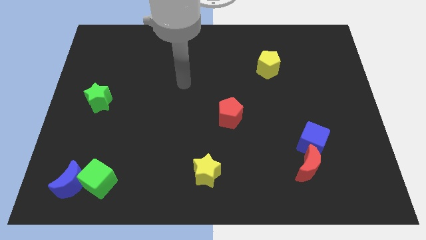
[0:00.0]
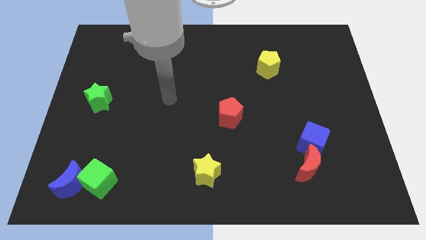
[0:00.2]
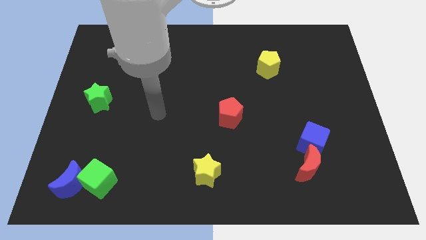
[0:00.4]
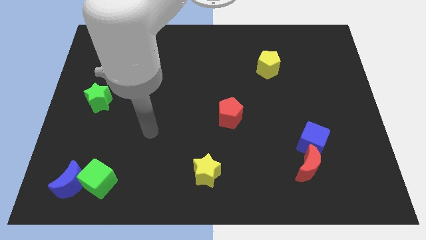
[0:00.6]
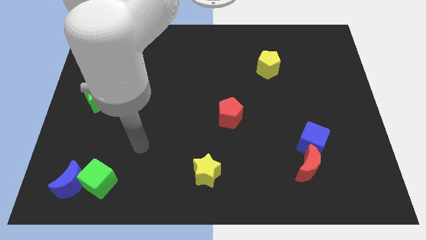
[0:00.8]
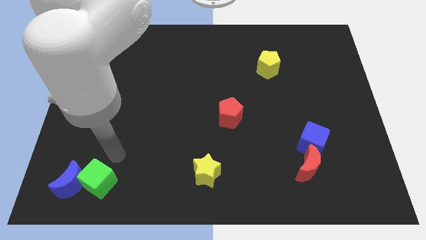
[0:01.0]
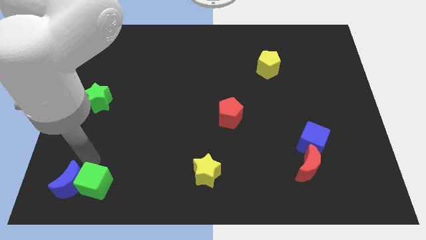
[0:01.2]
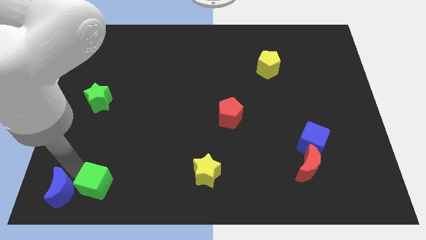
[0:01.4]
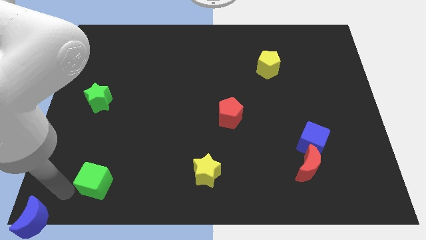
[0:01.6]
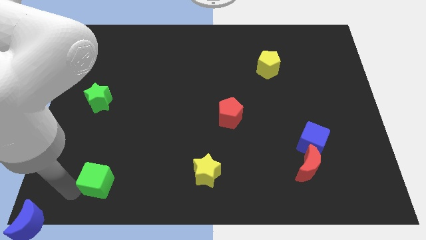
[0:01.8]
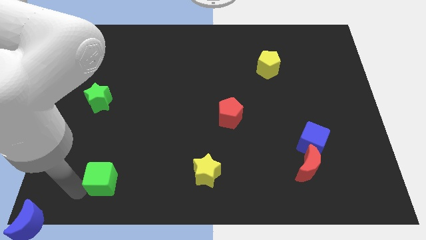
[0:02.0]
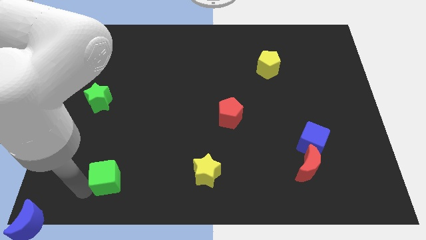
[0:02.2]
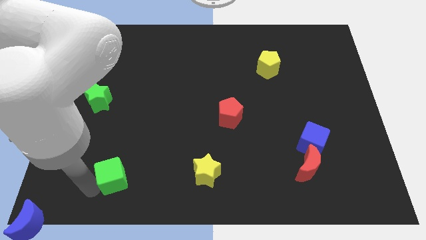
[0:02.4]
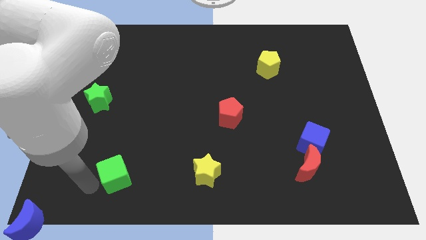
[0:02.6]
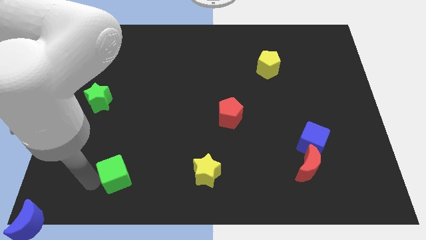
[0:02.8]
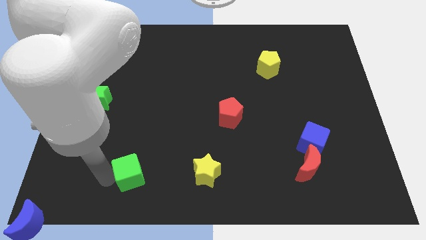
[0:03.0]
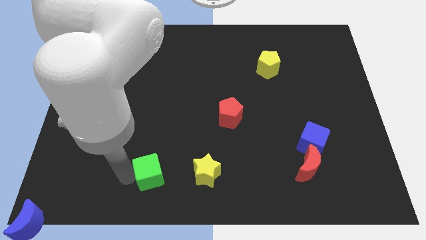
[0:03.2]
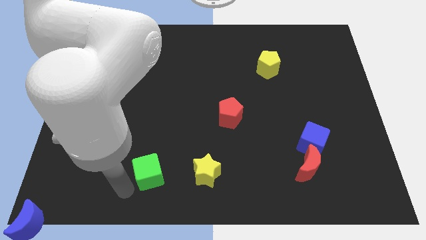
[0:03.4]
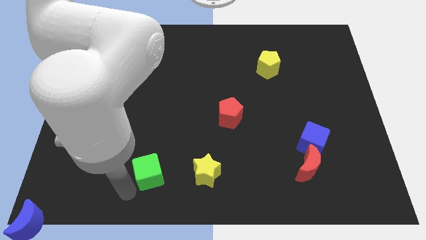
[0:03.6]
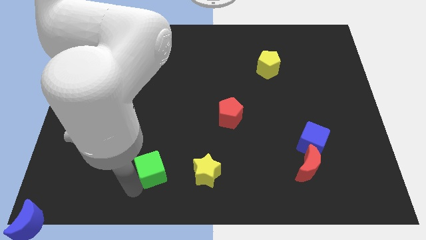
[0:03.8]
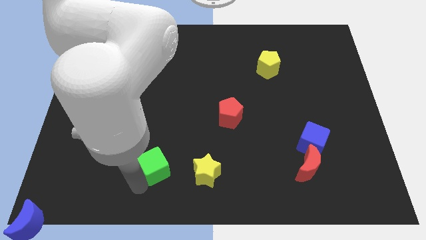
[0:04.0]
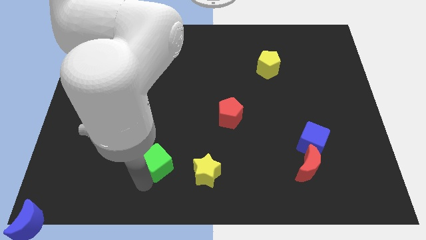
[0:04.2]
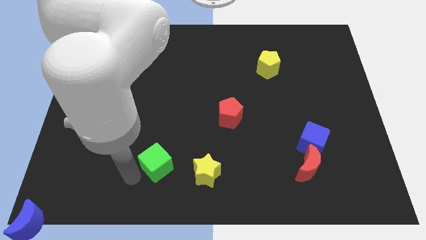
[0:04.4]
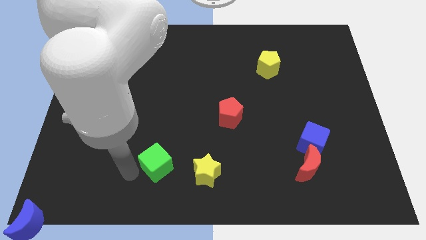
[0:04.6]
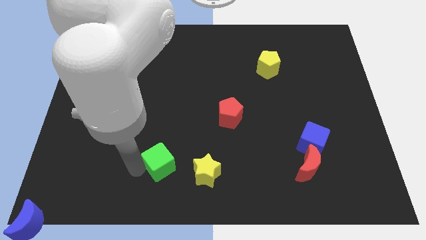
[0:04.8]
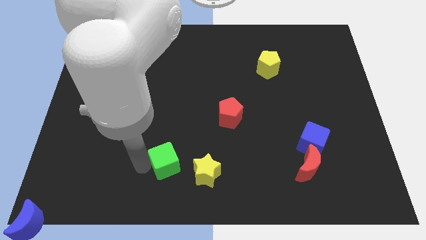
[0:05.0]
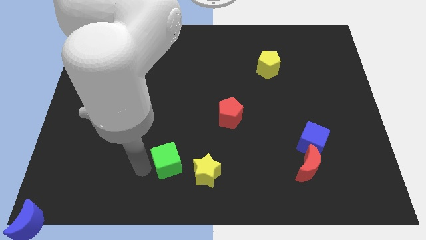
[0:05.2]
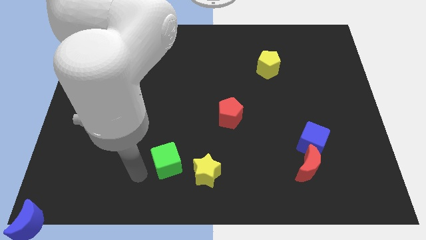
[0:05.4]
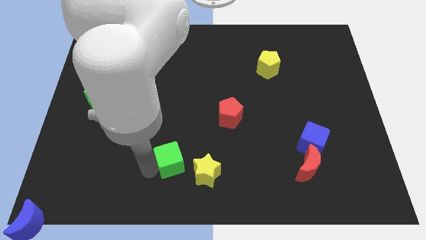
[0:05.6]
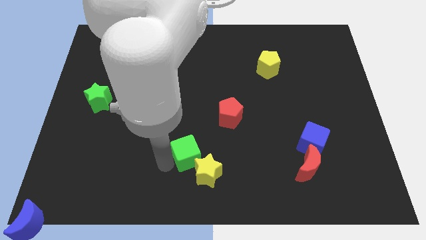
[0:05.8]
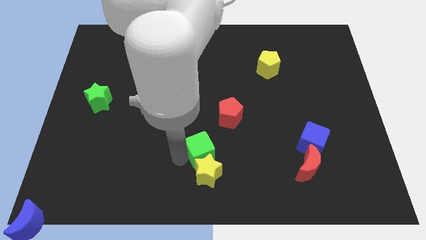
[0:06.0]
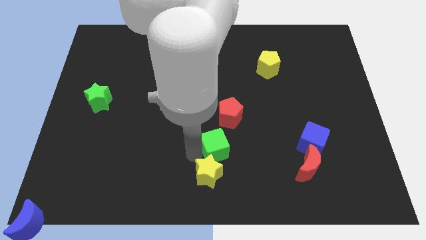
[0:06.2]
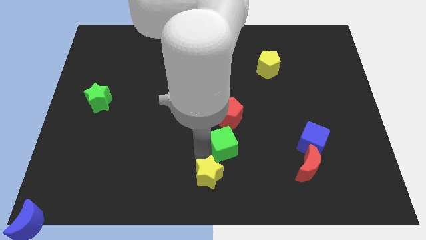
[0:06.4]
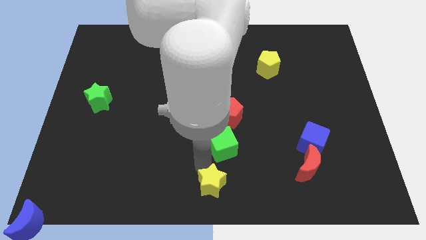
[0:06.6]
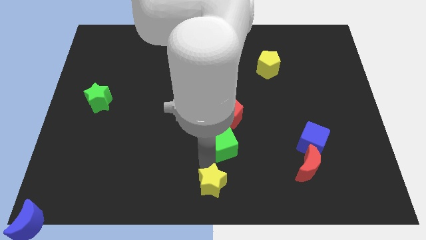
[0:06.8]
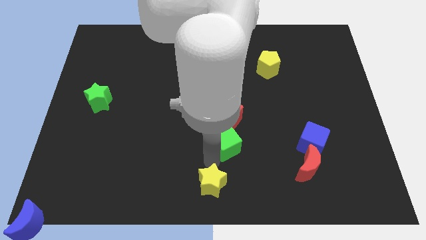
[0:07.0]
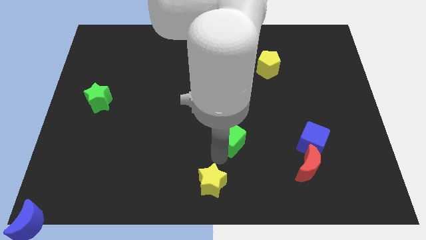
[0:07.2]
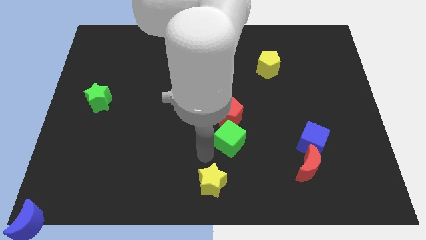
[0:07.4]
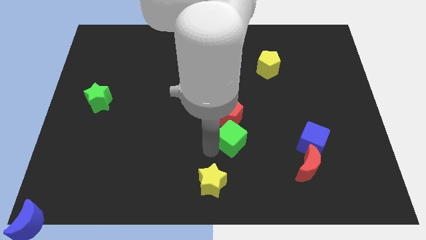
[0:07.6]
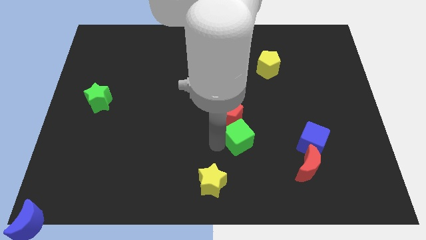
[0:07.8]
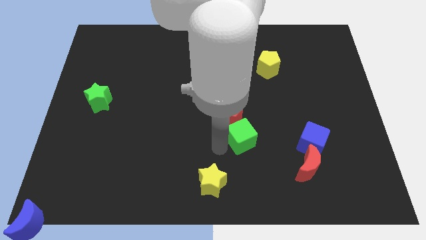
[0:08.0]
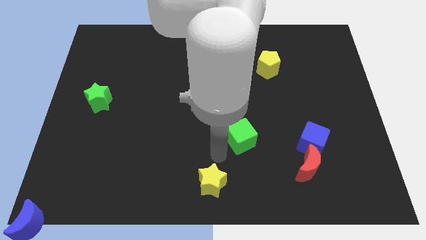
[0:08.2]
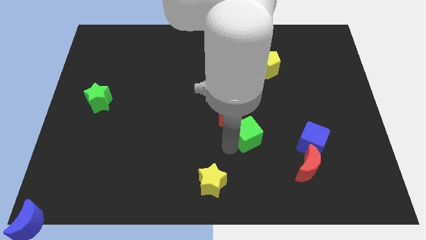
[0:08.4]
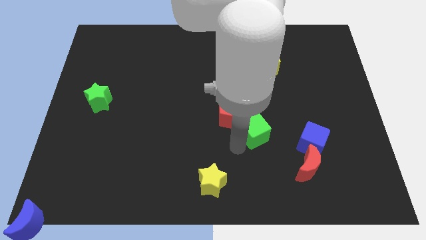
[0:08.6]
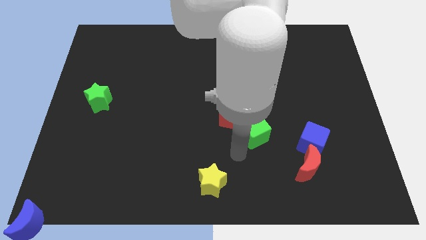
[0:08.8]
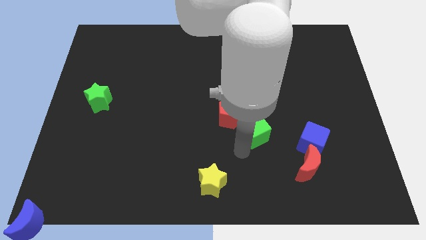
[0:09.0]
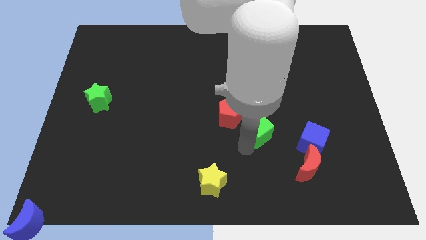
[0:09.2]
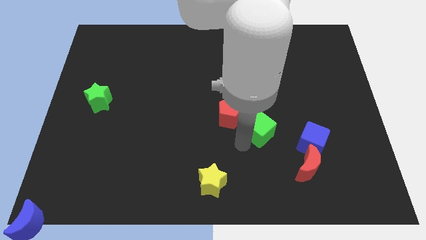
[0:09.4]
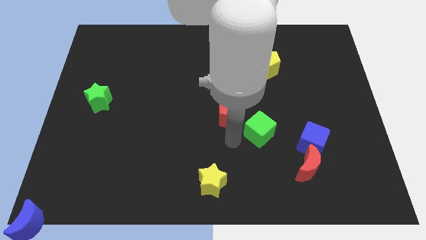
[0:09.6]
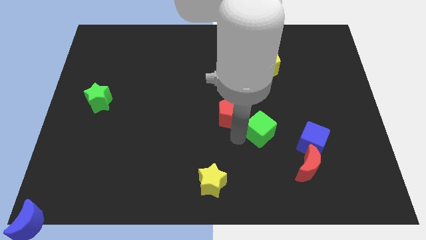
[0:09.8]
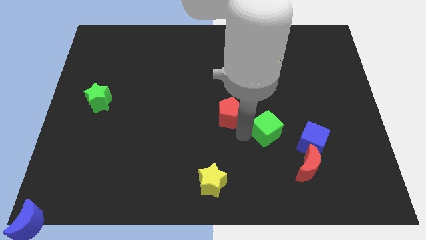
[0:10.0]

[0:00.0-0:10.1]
push the green cube diagonally up and to the left of the blue cube

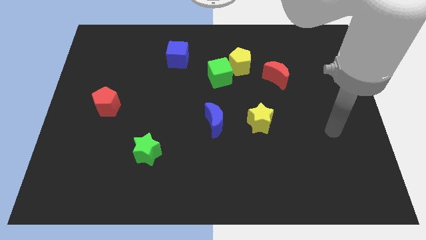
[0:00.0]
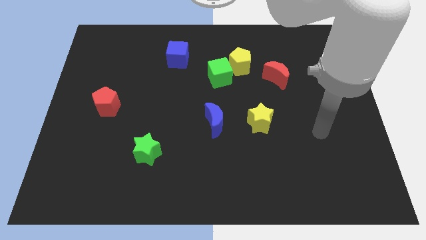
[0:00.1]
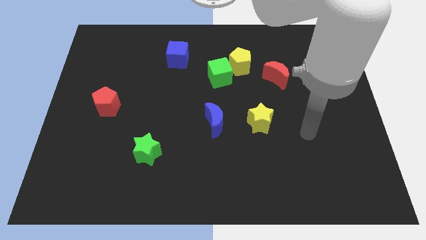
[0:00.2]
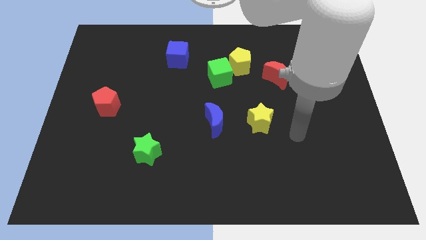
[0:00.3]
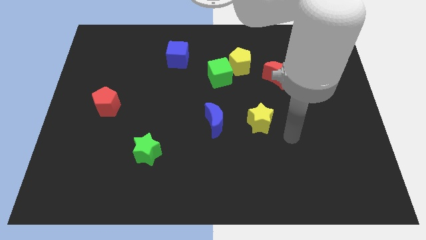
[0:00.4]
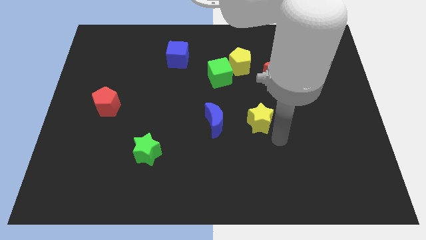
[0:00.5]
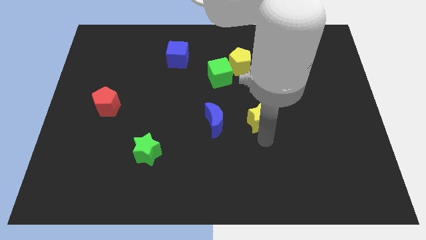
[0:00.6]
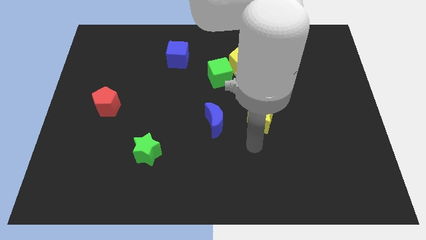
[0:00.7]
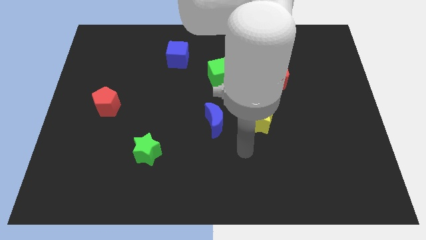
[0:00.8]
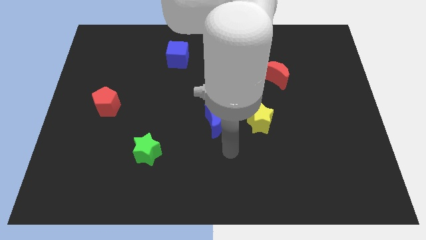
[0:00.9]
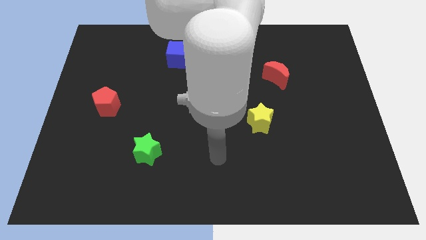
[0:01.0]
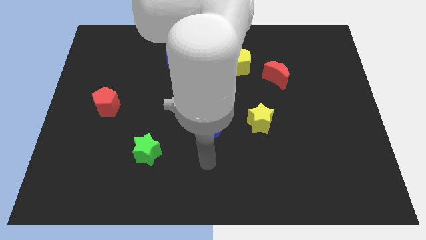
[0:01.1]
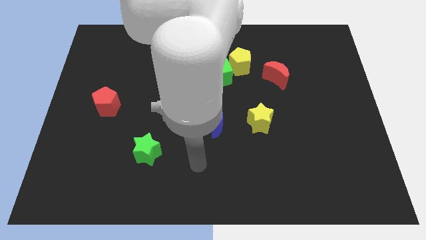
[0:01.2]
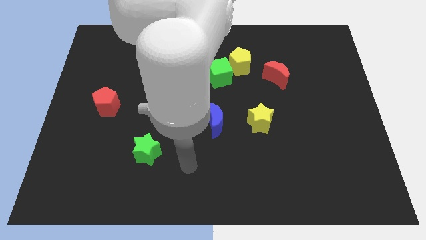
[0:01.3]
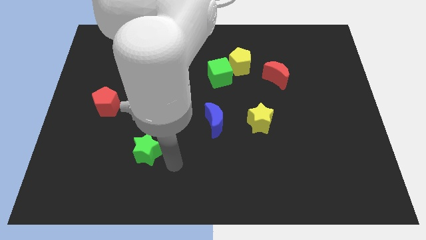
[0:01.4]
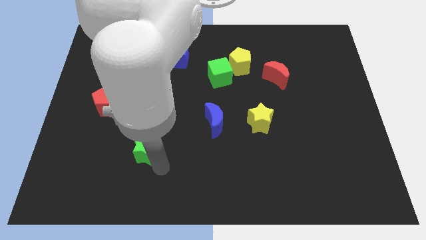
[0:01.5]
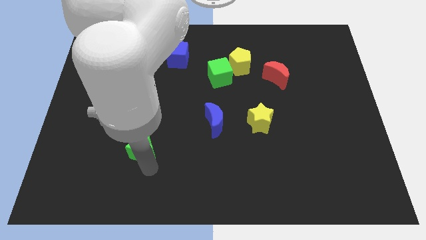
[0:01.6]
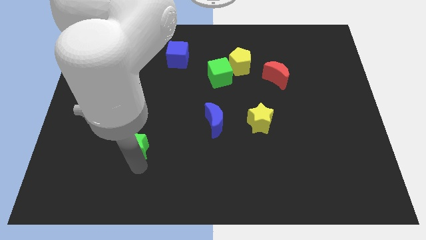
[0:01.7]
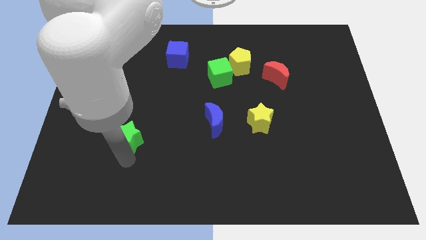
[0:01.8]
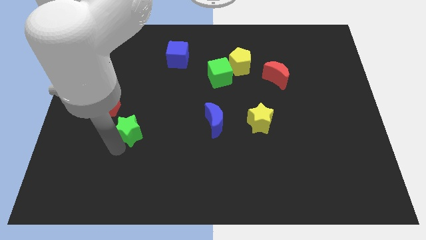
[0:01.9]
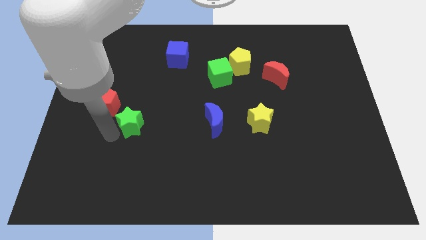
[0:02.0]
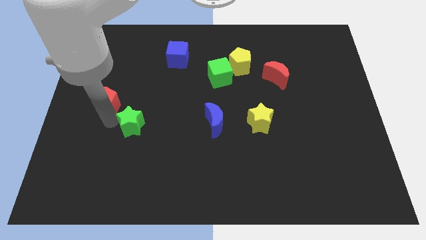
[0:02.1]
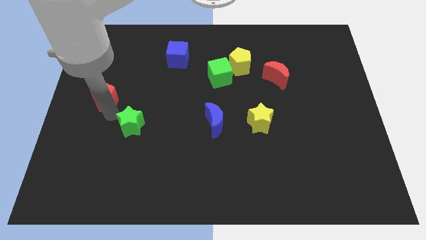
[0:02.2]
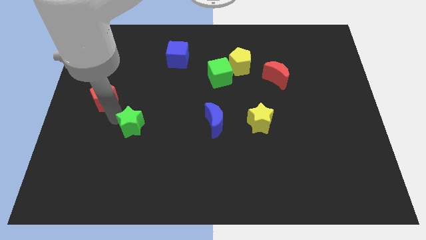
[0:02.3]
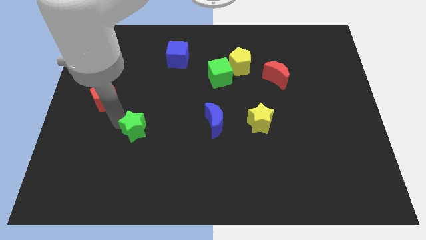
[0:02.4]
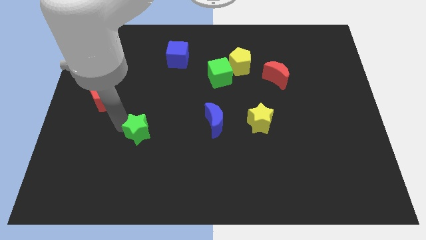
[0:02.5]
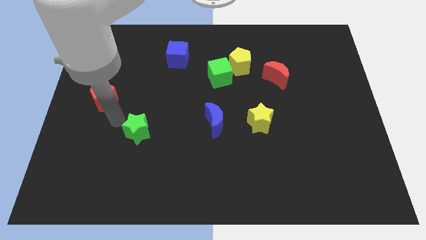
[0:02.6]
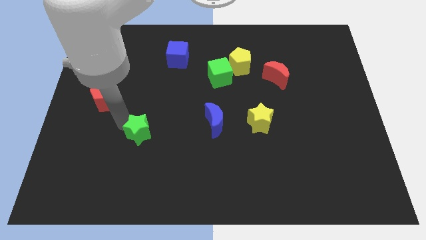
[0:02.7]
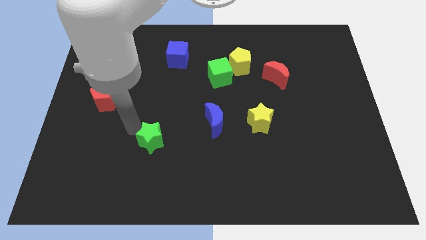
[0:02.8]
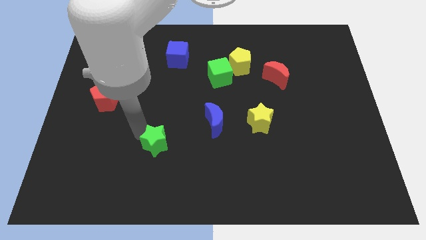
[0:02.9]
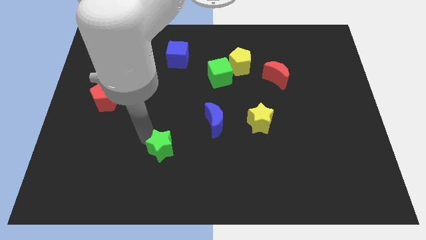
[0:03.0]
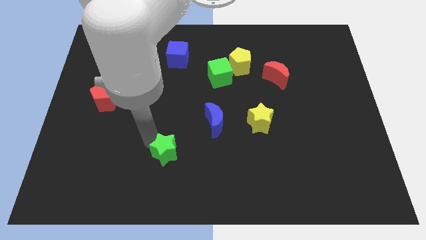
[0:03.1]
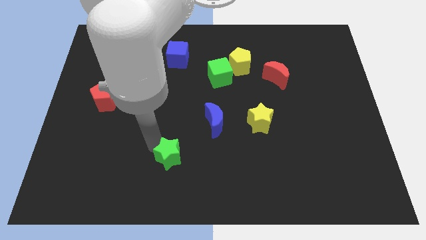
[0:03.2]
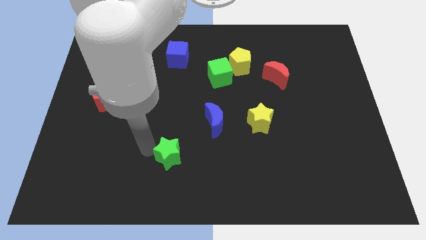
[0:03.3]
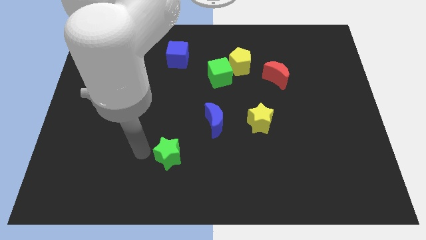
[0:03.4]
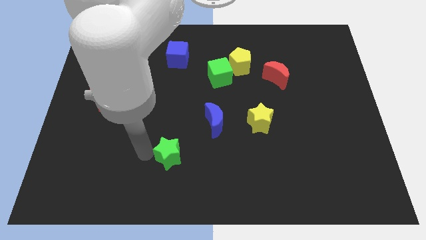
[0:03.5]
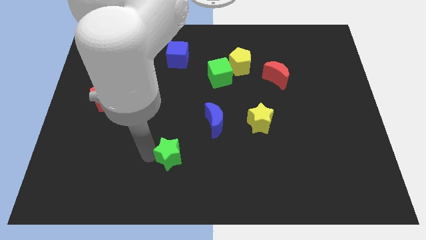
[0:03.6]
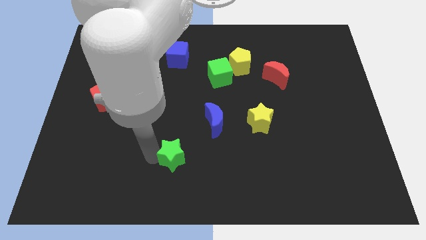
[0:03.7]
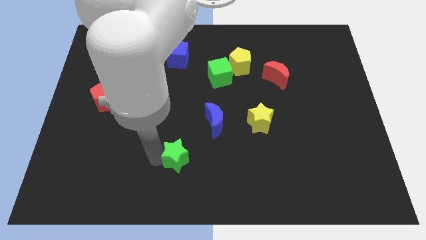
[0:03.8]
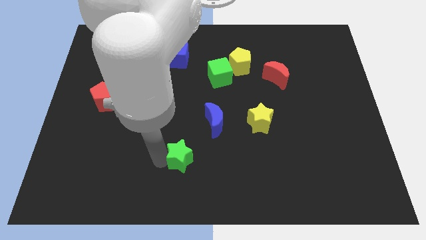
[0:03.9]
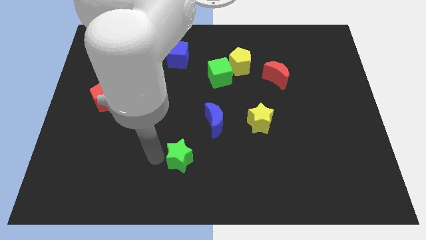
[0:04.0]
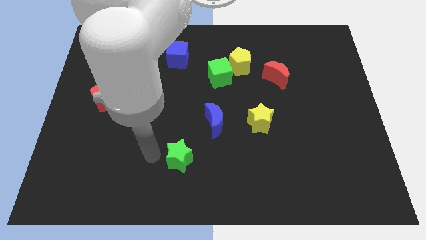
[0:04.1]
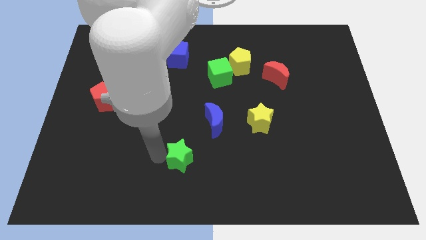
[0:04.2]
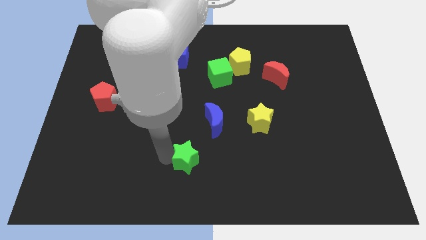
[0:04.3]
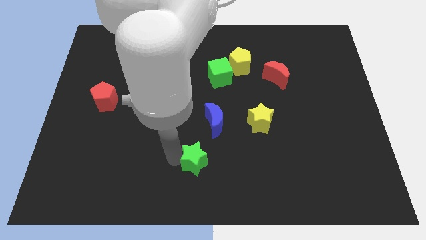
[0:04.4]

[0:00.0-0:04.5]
push the green star to the bottom of the blue moon
